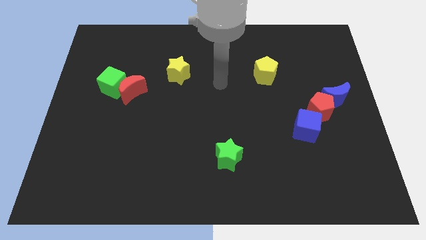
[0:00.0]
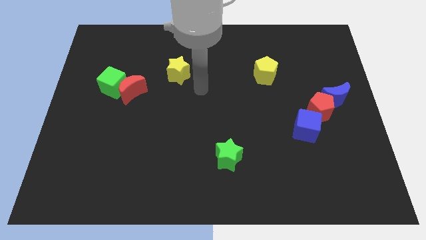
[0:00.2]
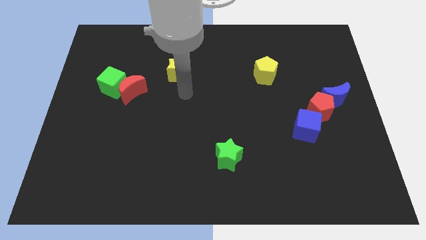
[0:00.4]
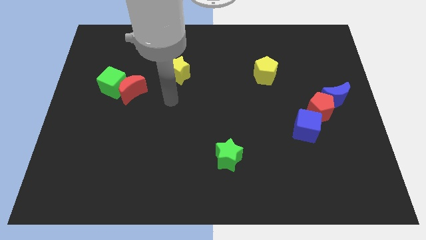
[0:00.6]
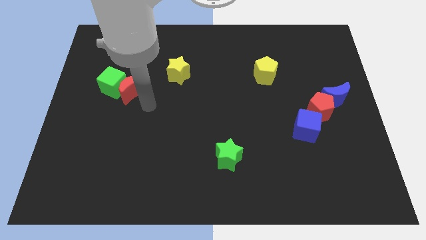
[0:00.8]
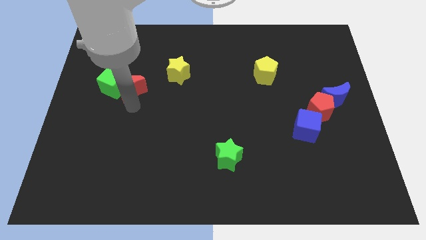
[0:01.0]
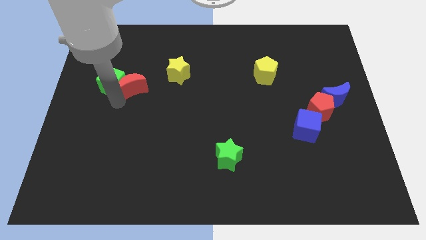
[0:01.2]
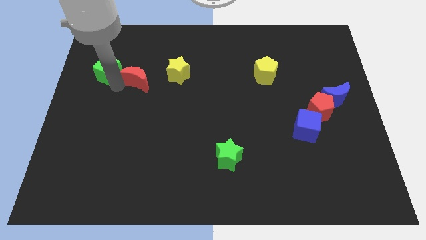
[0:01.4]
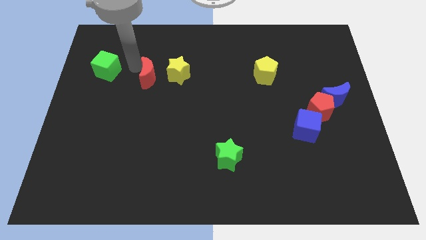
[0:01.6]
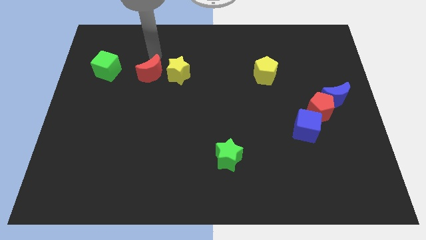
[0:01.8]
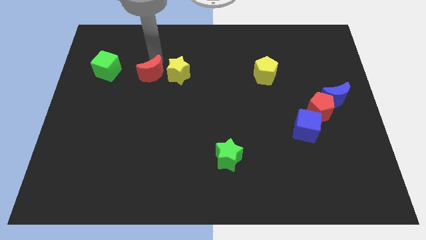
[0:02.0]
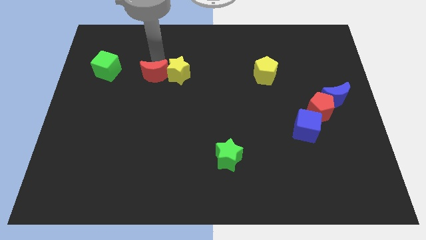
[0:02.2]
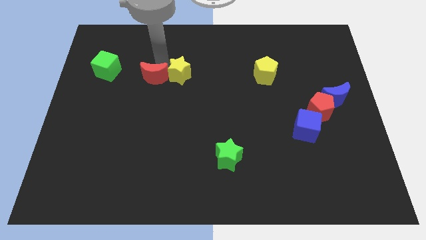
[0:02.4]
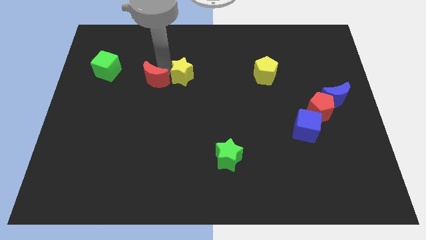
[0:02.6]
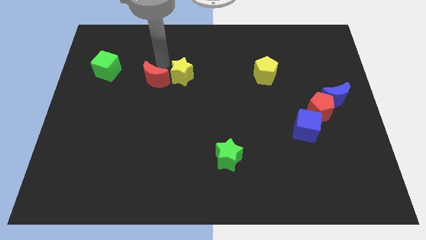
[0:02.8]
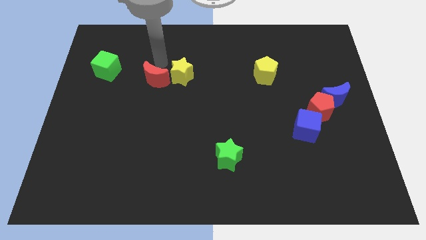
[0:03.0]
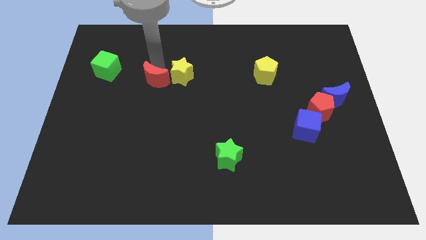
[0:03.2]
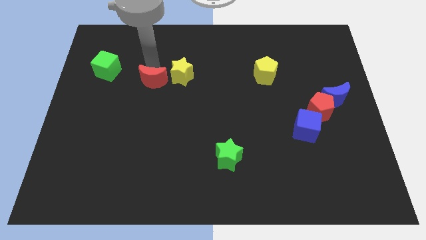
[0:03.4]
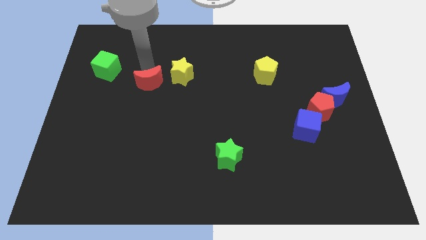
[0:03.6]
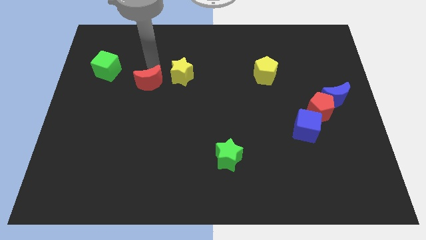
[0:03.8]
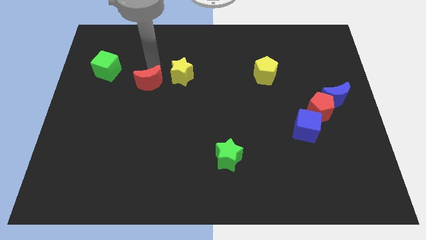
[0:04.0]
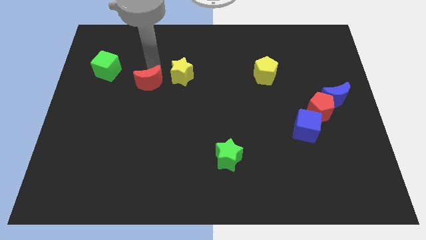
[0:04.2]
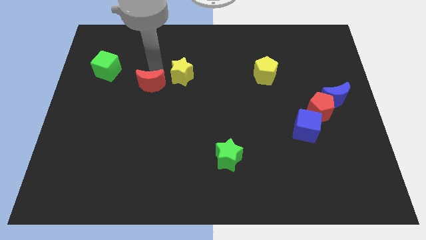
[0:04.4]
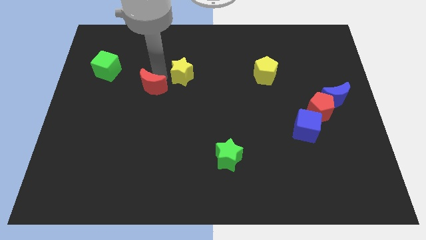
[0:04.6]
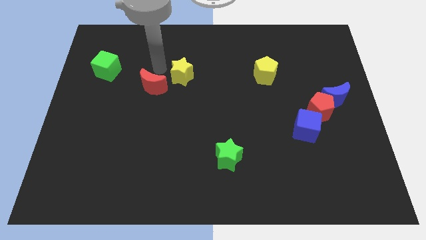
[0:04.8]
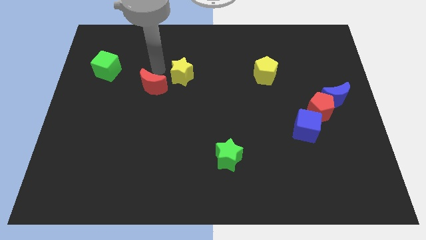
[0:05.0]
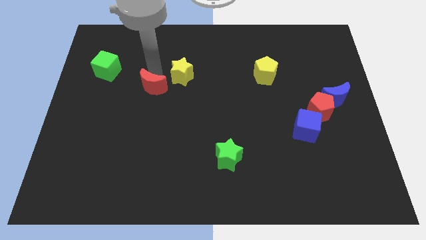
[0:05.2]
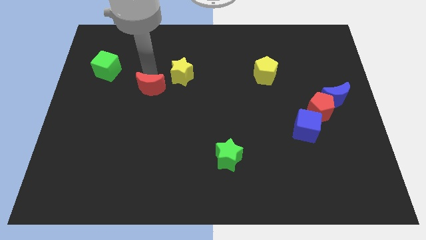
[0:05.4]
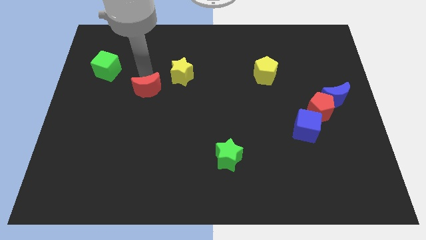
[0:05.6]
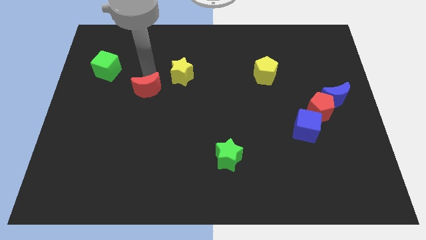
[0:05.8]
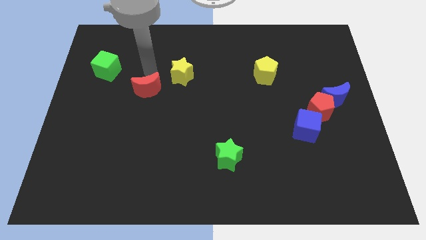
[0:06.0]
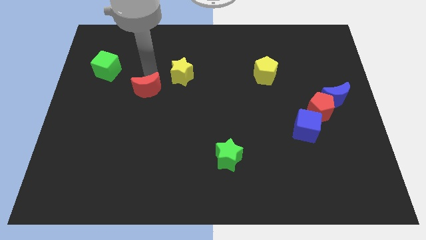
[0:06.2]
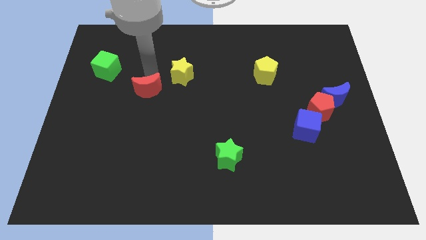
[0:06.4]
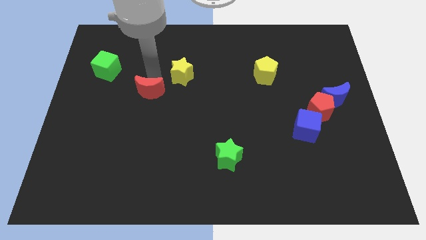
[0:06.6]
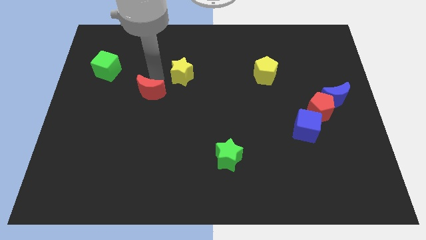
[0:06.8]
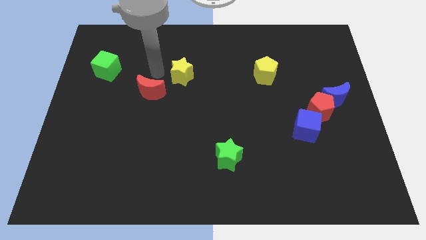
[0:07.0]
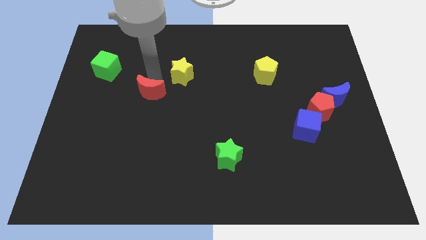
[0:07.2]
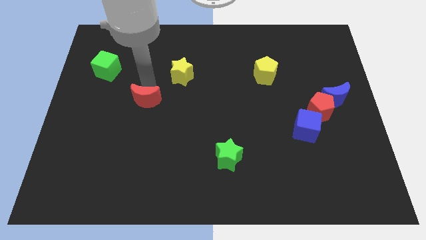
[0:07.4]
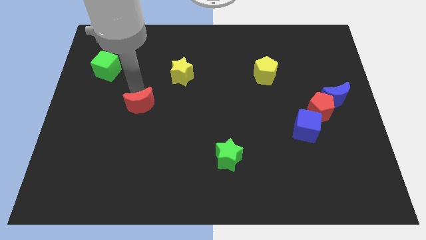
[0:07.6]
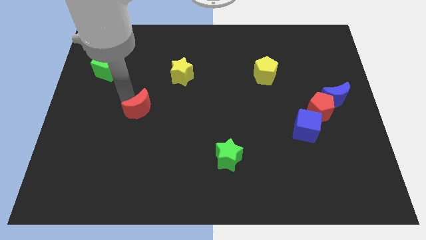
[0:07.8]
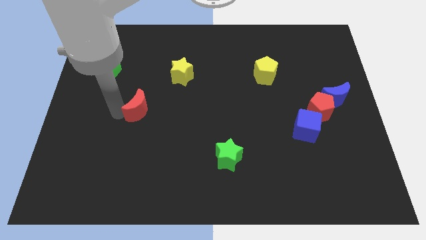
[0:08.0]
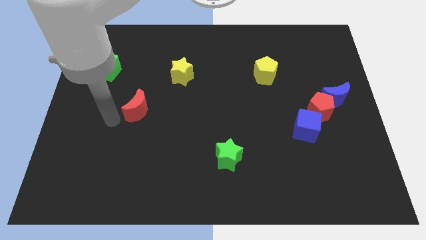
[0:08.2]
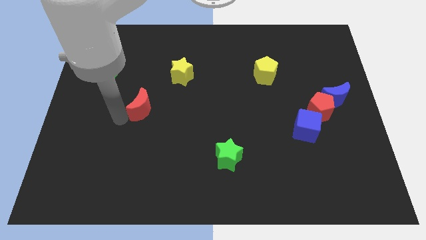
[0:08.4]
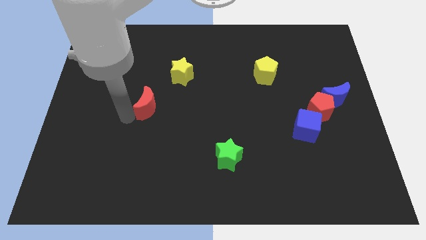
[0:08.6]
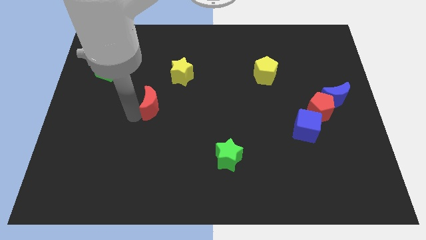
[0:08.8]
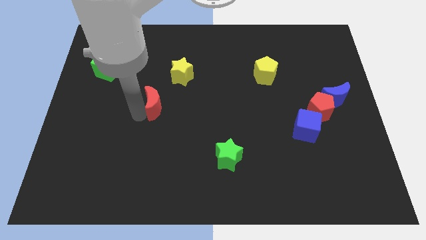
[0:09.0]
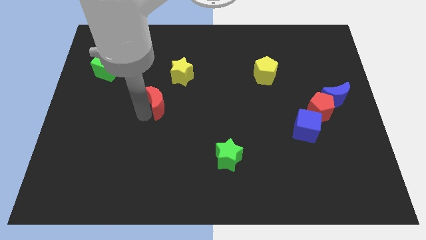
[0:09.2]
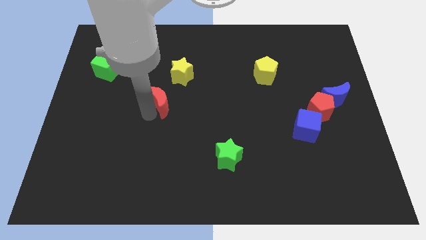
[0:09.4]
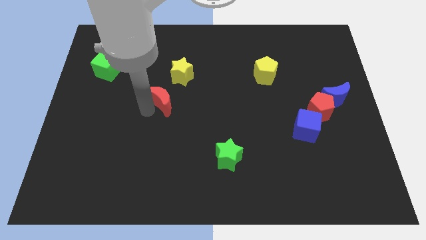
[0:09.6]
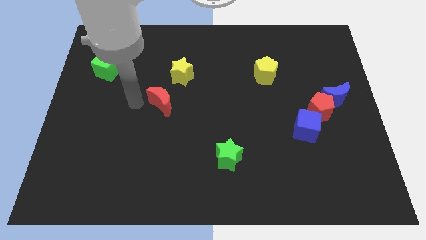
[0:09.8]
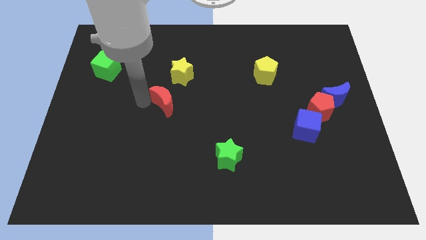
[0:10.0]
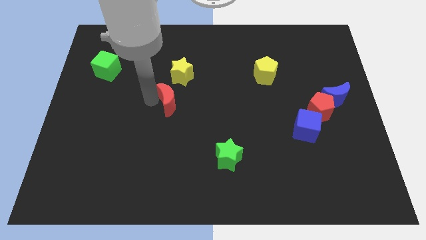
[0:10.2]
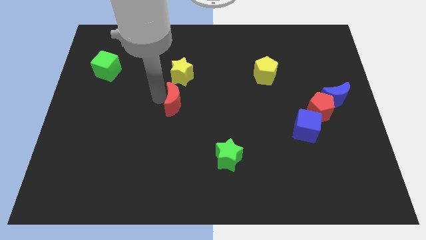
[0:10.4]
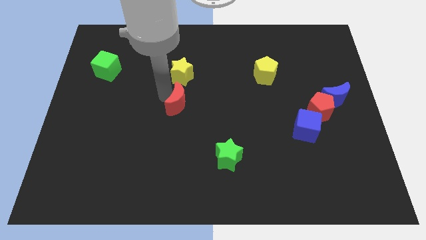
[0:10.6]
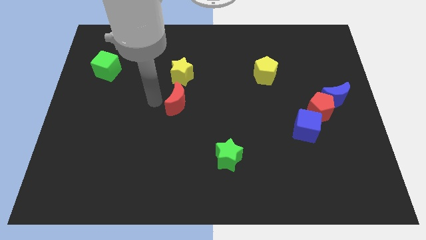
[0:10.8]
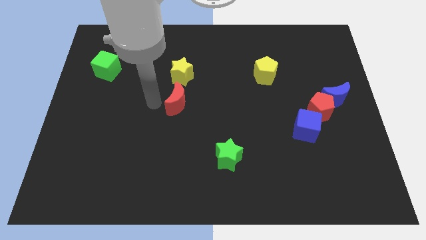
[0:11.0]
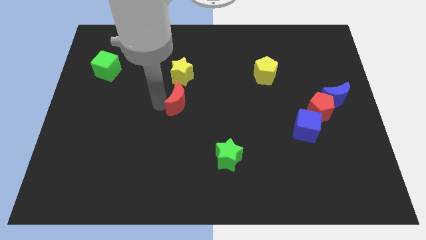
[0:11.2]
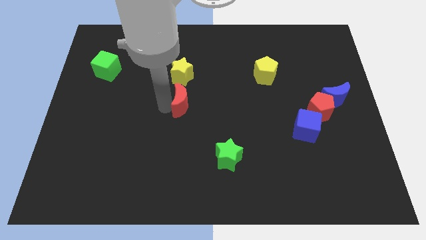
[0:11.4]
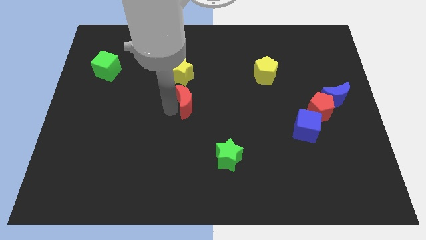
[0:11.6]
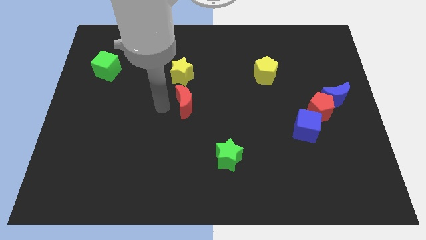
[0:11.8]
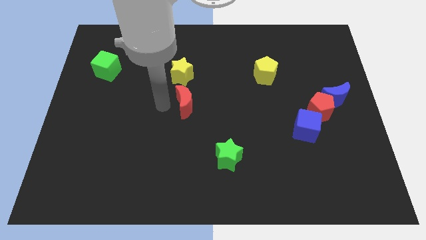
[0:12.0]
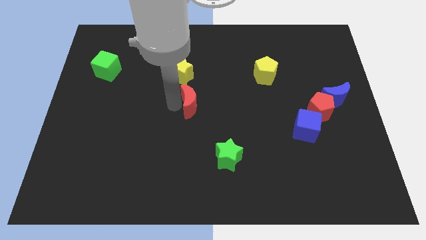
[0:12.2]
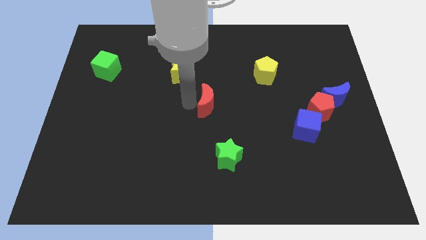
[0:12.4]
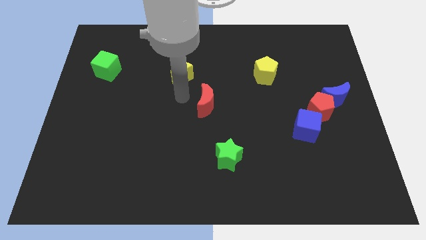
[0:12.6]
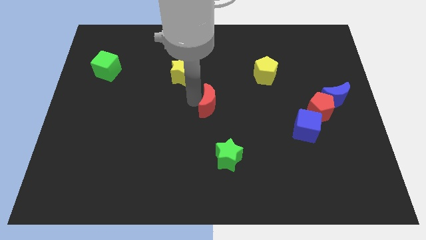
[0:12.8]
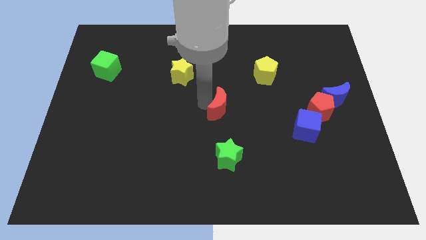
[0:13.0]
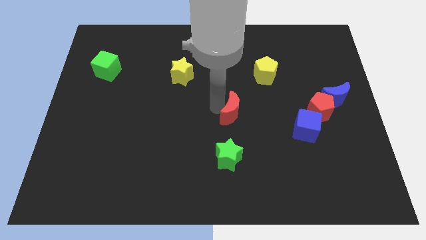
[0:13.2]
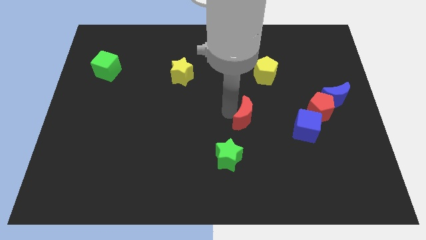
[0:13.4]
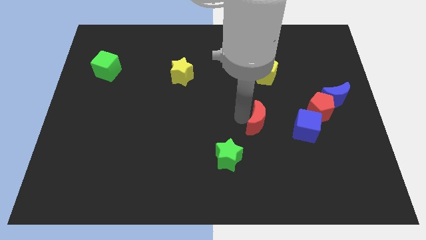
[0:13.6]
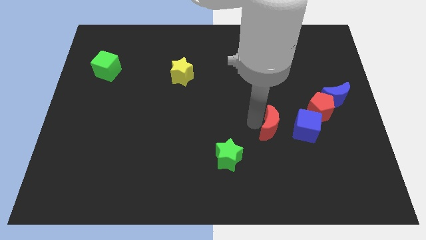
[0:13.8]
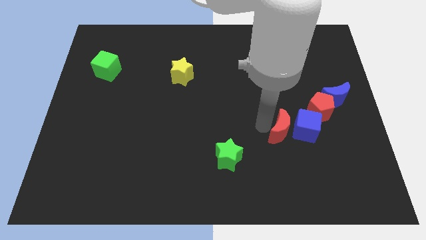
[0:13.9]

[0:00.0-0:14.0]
push the red moon to the blue cube
